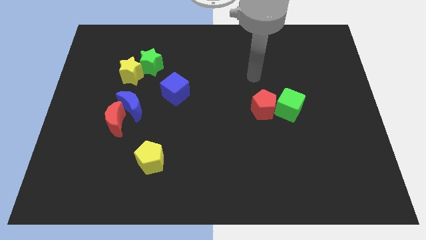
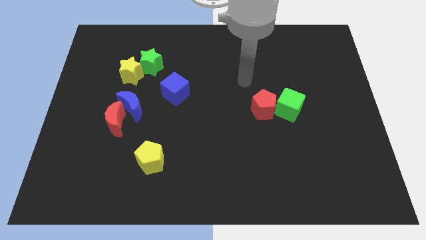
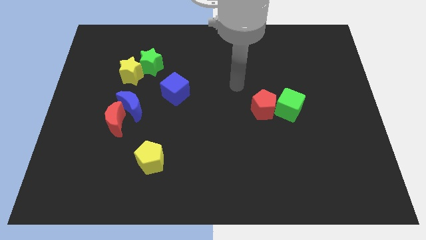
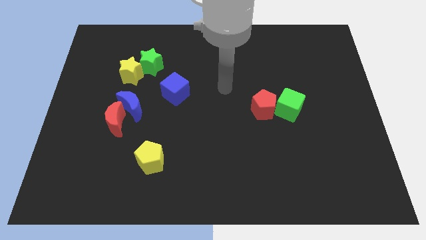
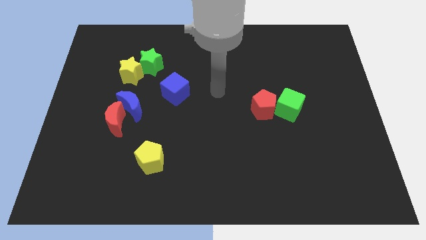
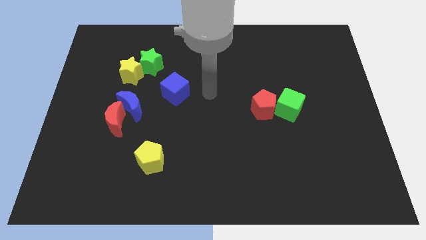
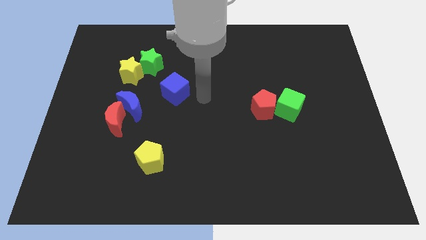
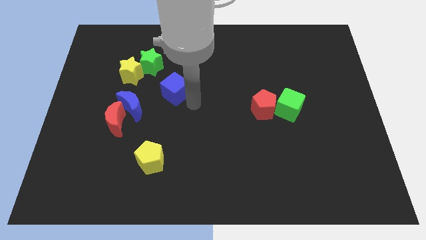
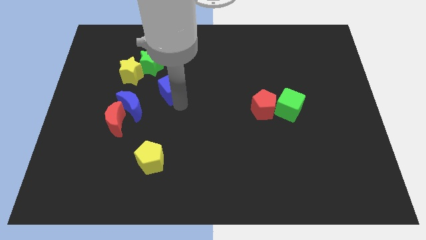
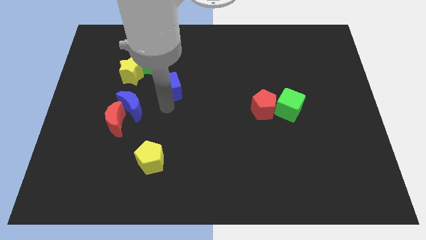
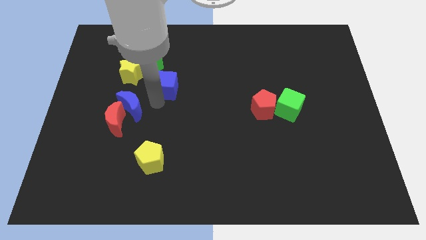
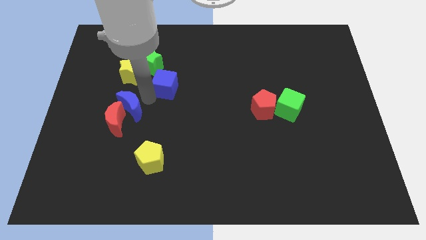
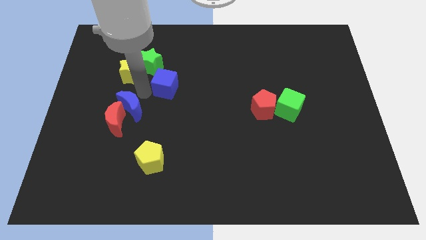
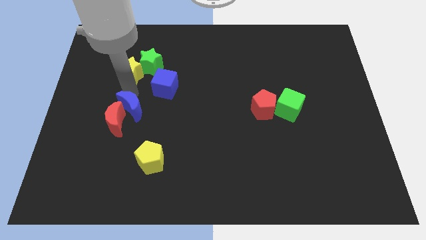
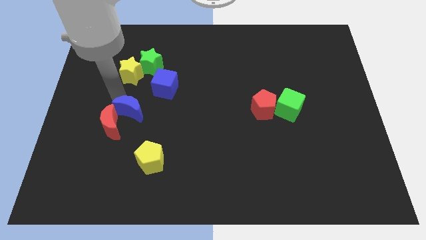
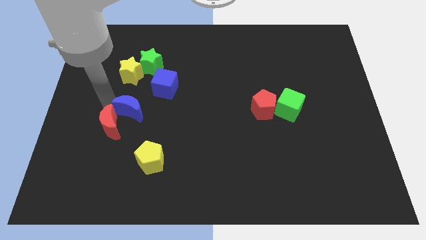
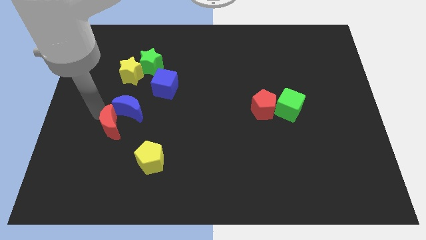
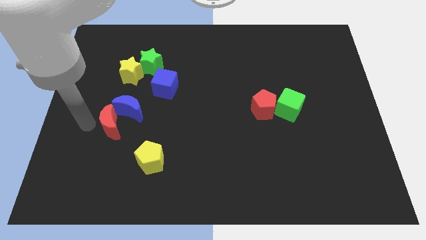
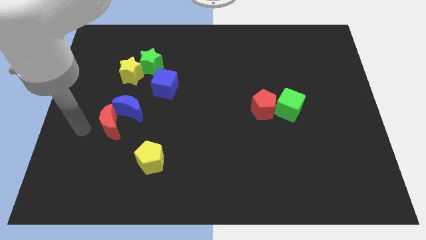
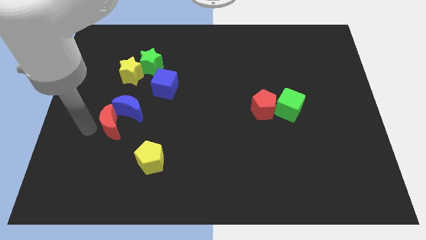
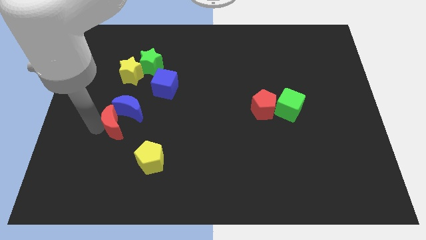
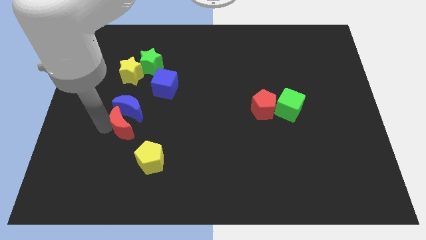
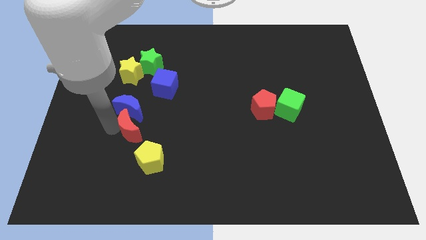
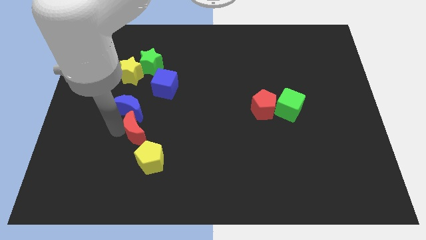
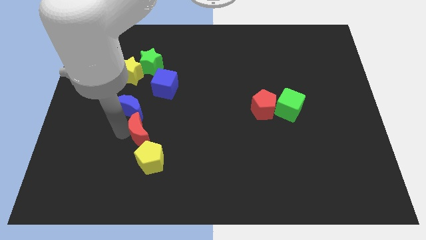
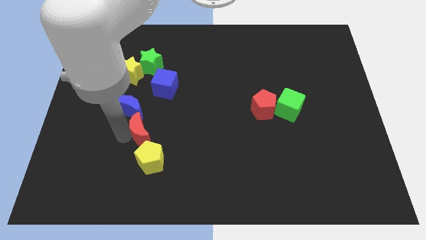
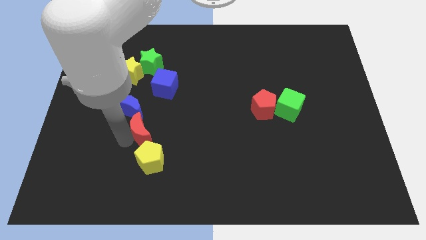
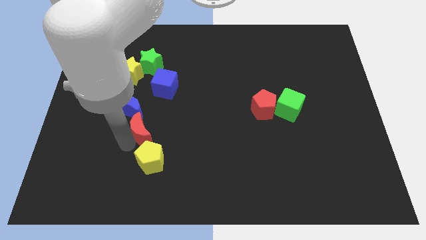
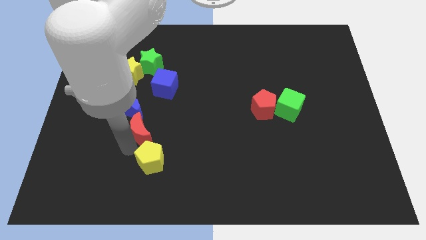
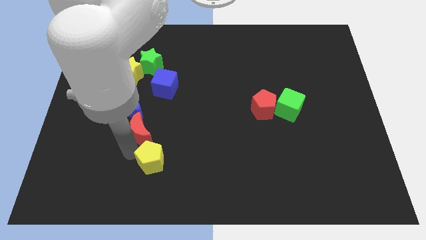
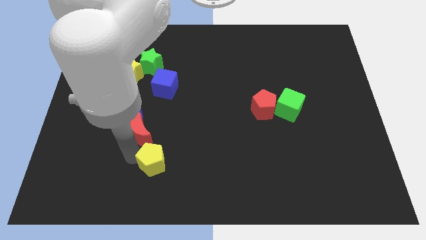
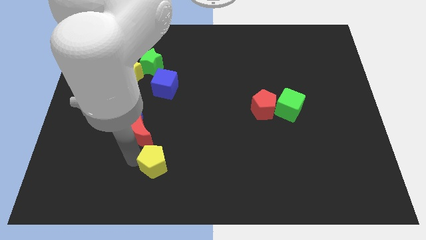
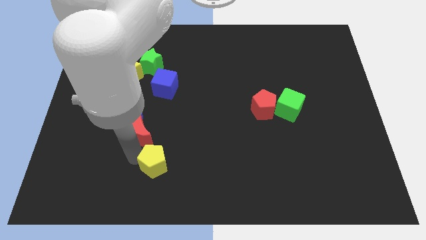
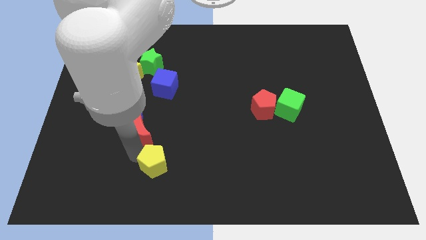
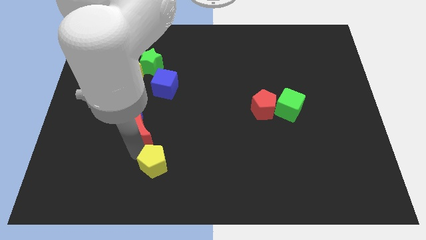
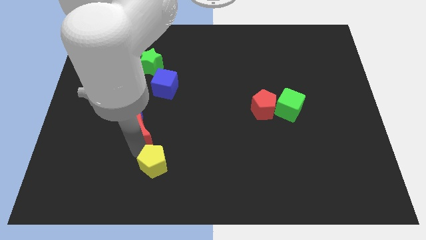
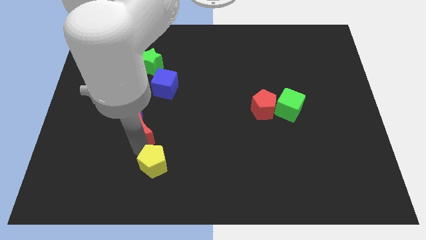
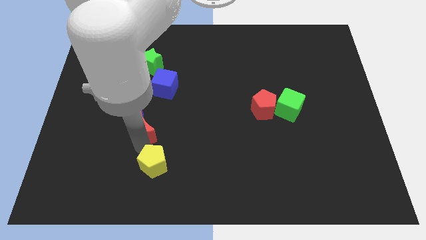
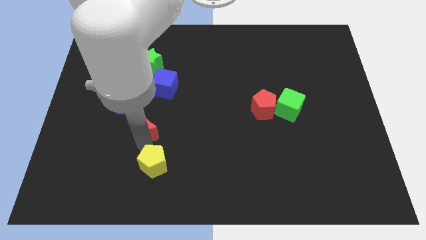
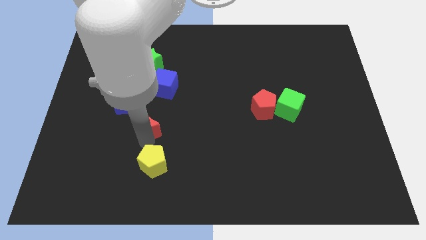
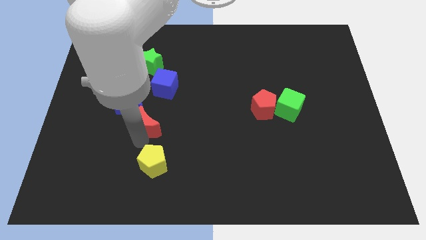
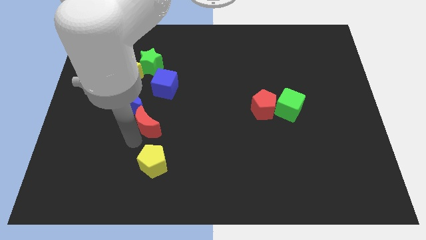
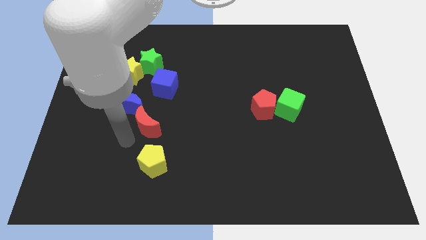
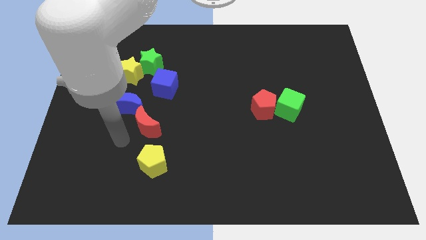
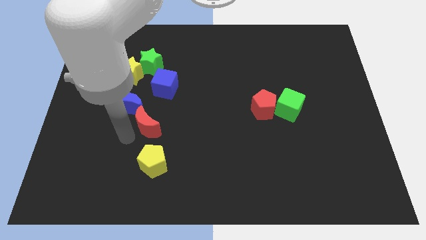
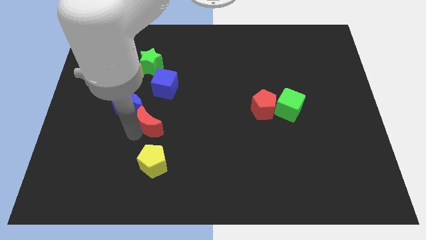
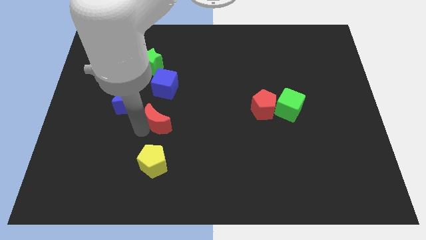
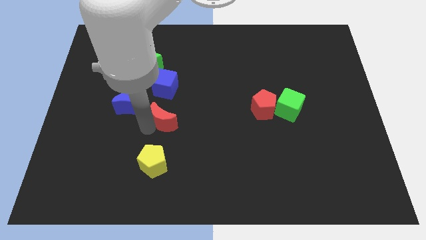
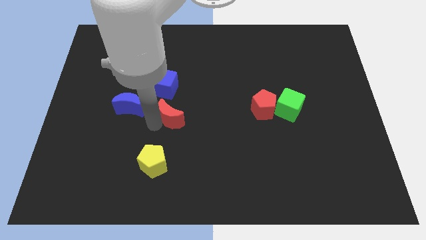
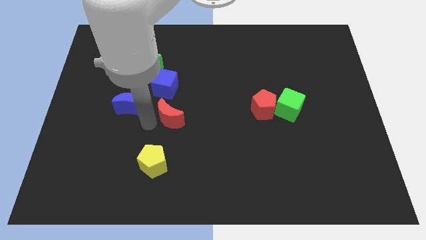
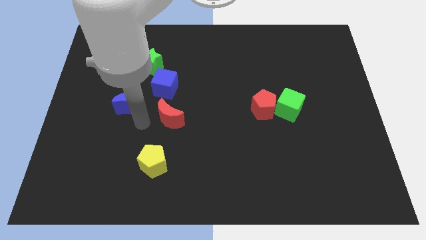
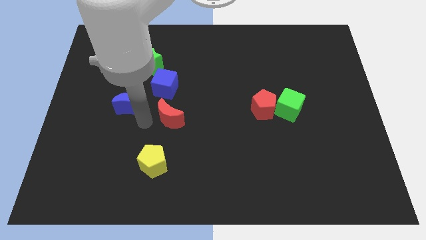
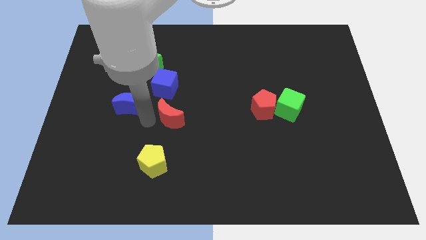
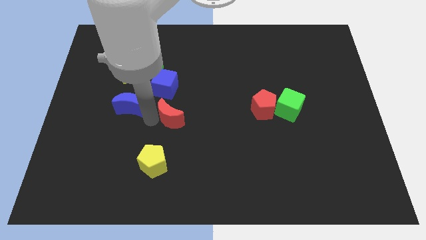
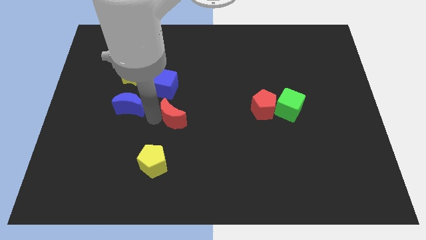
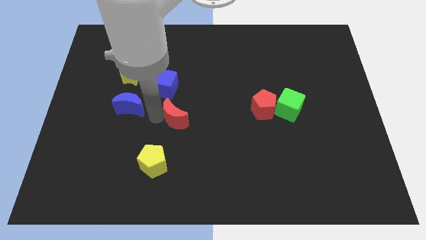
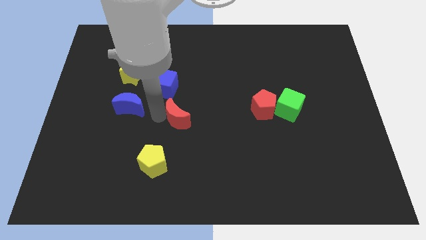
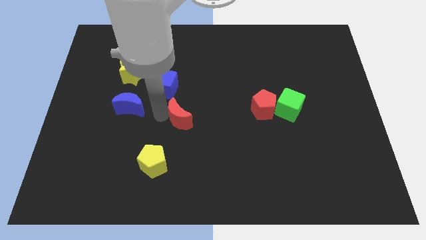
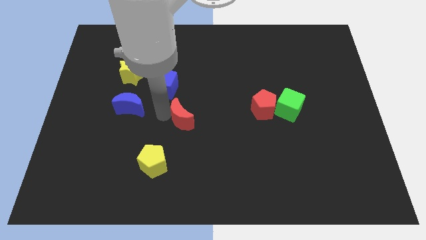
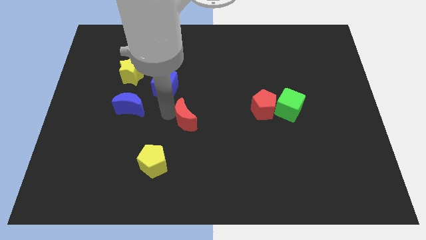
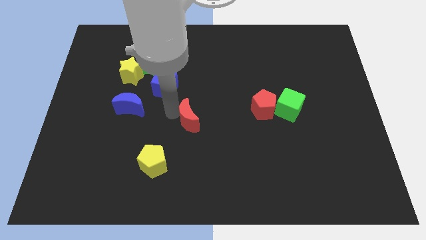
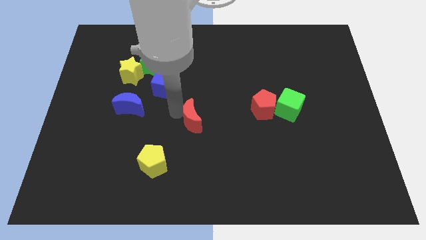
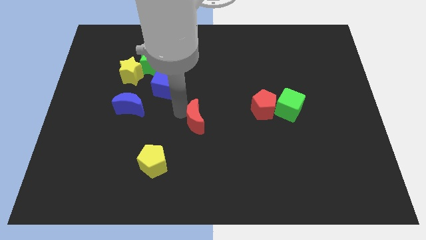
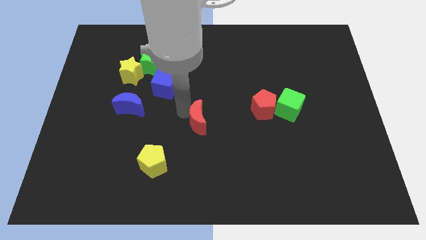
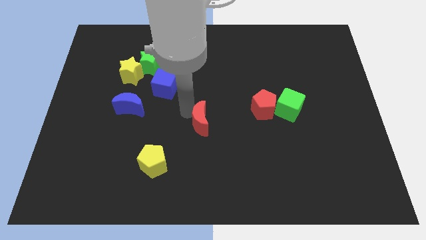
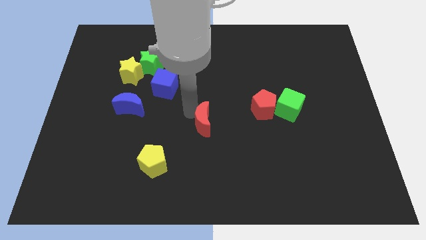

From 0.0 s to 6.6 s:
push the red moon right

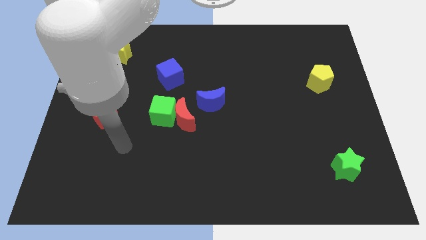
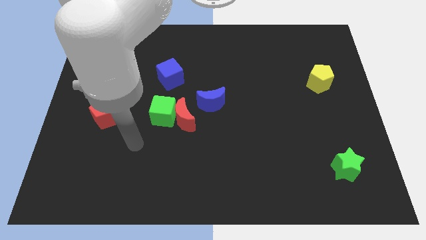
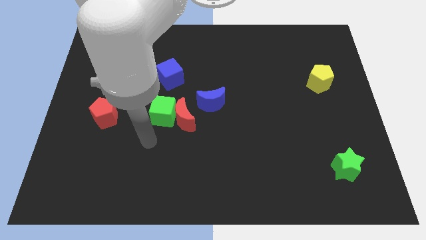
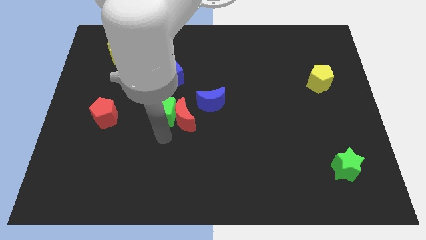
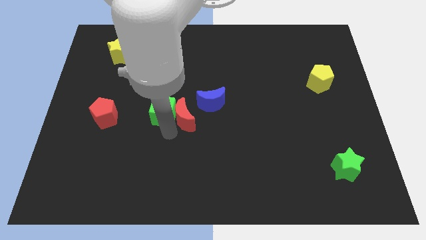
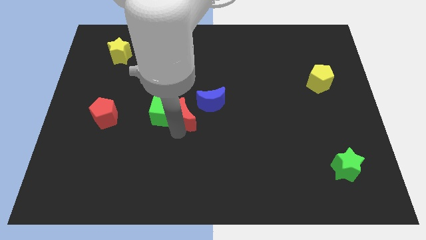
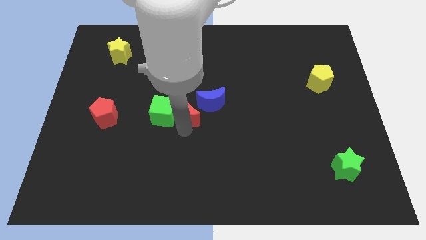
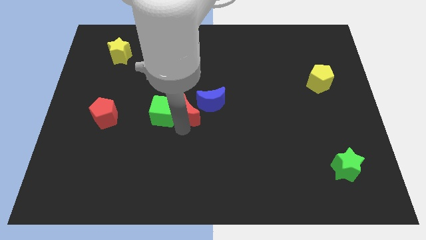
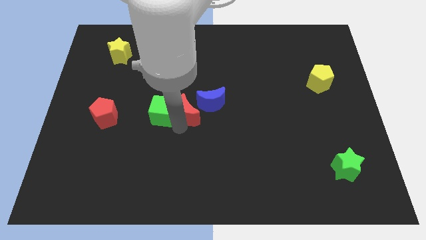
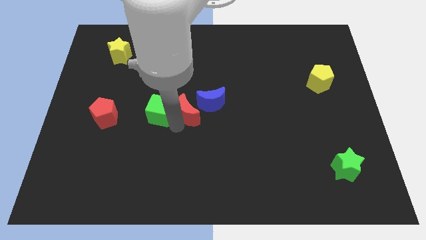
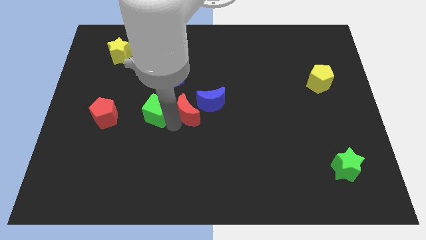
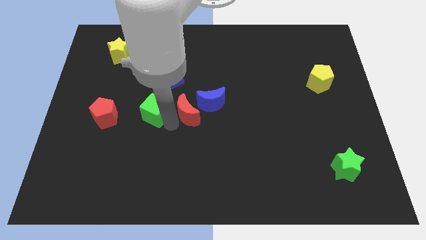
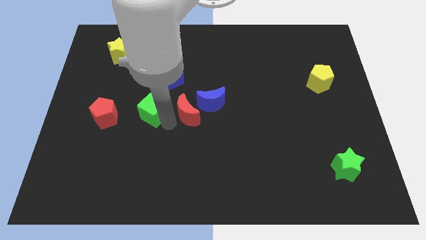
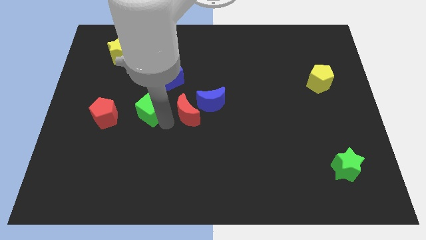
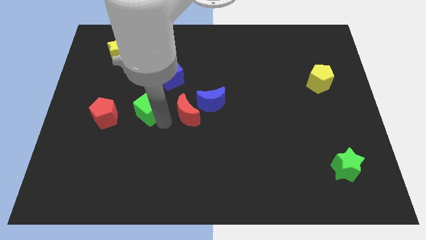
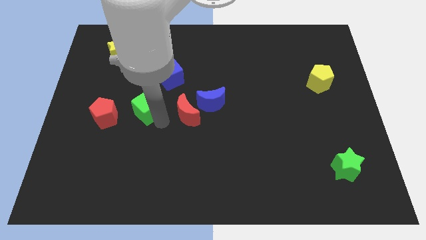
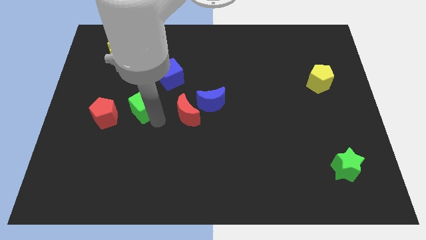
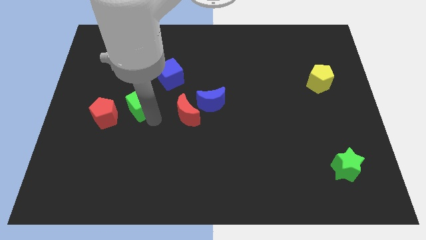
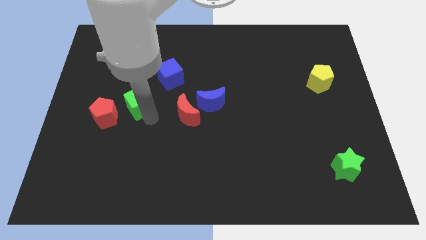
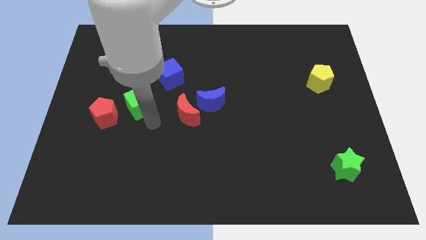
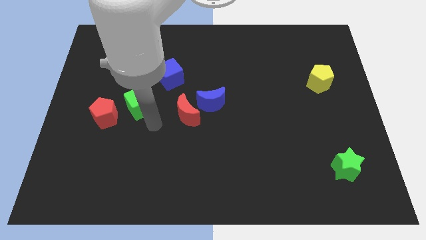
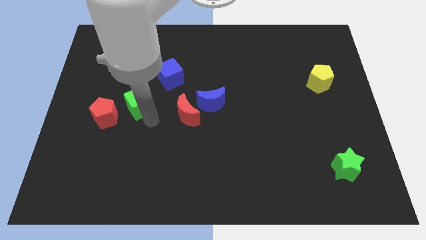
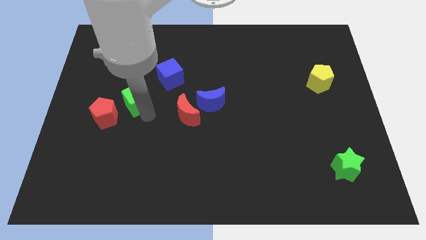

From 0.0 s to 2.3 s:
move the green cube a bit up and to the left diagonally
